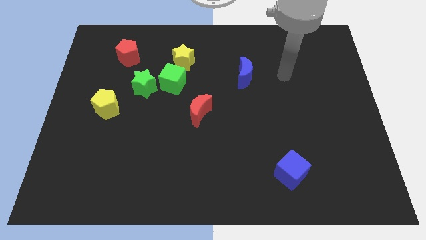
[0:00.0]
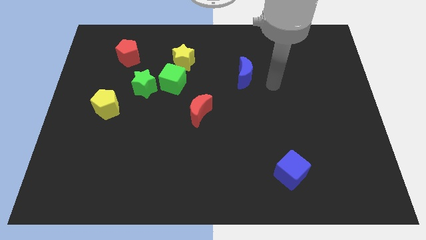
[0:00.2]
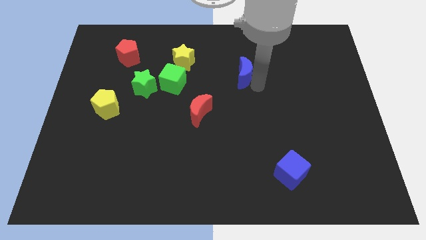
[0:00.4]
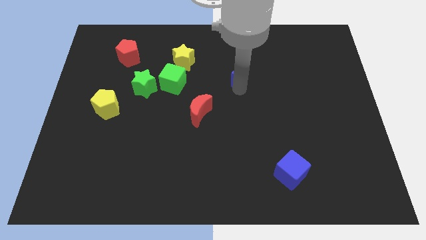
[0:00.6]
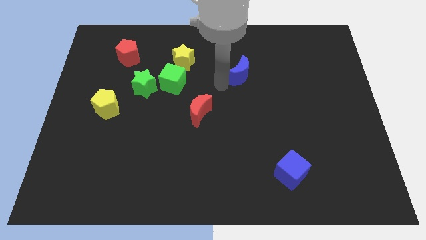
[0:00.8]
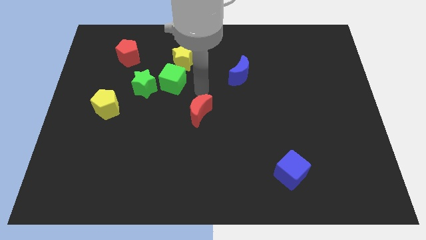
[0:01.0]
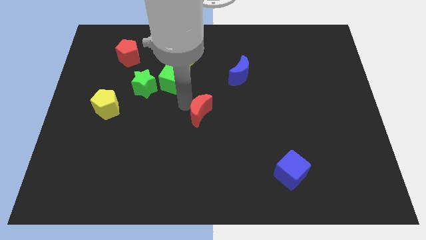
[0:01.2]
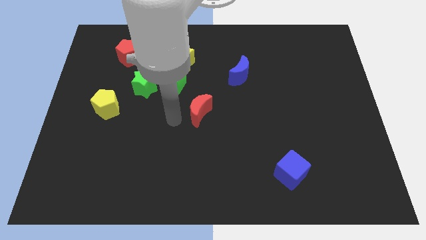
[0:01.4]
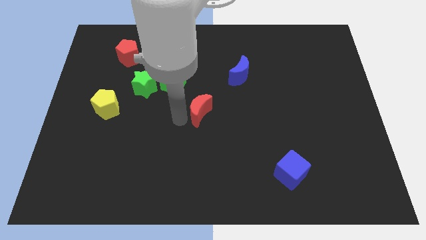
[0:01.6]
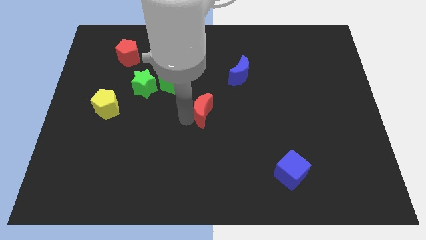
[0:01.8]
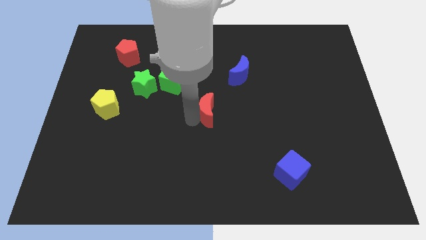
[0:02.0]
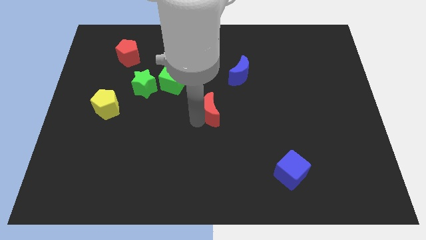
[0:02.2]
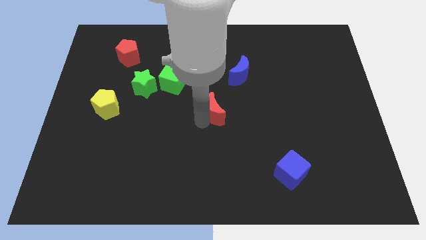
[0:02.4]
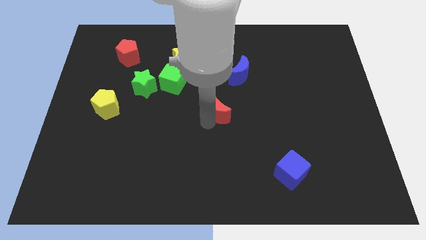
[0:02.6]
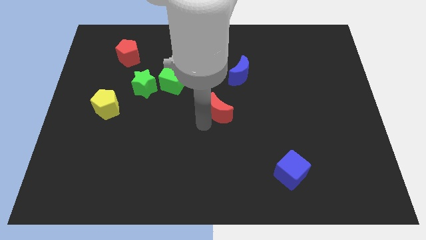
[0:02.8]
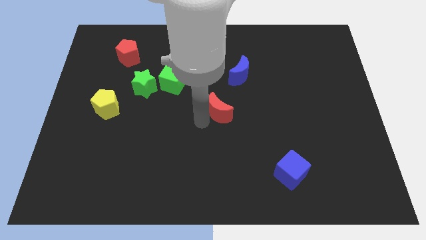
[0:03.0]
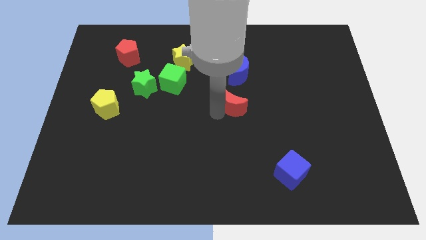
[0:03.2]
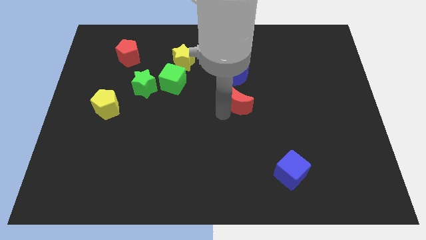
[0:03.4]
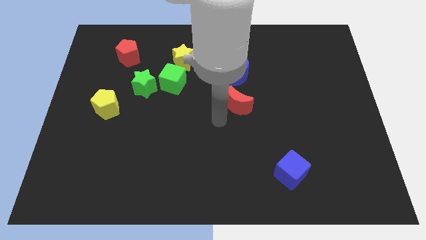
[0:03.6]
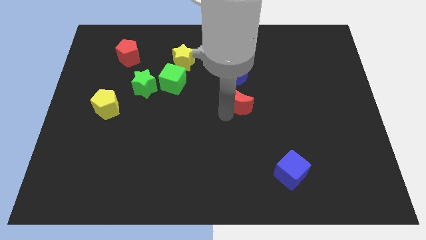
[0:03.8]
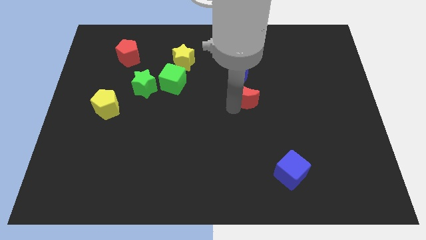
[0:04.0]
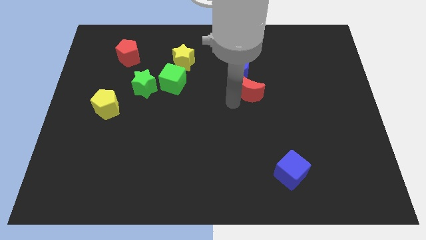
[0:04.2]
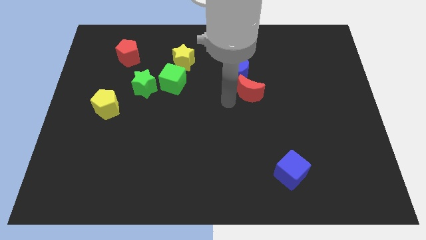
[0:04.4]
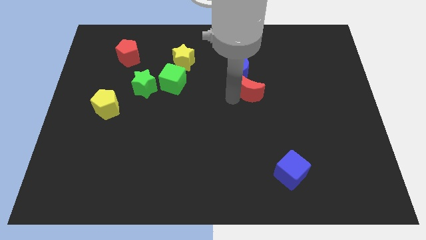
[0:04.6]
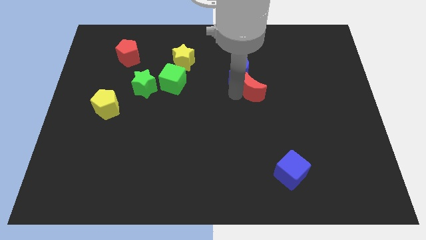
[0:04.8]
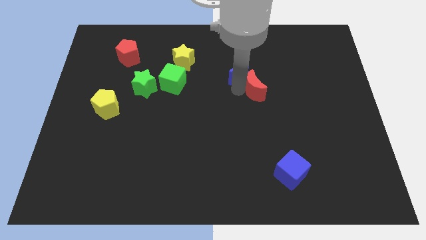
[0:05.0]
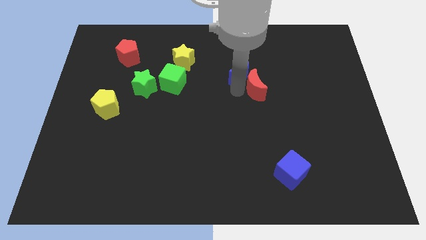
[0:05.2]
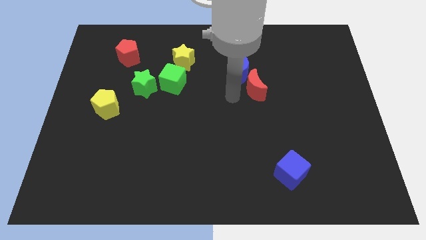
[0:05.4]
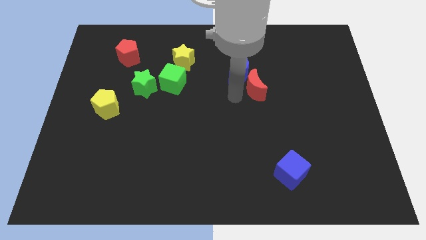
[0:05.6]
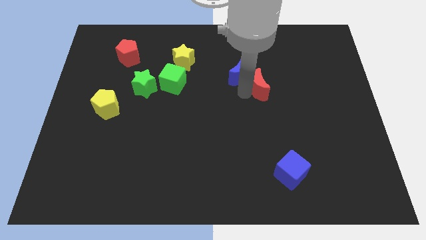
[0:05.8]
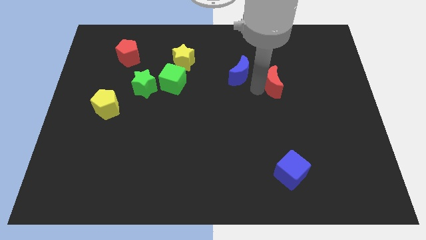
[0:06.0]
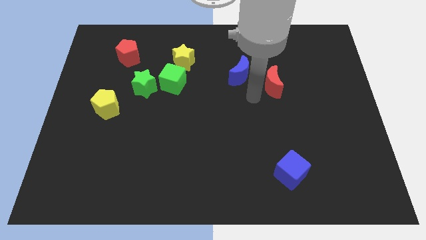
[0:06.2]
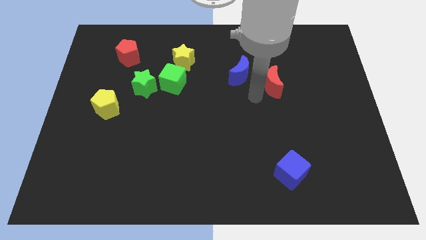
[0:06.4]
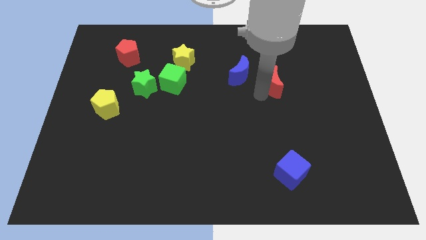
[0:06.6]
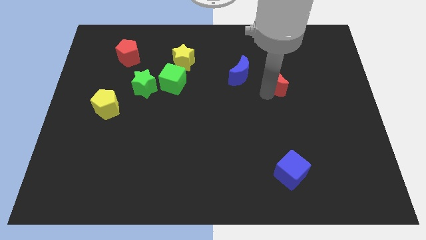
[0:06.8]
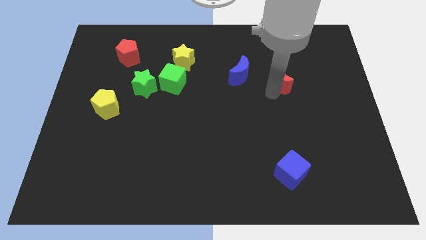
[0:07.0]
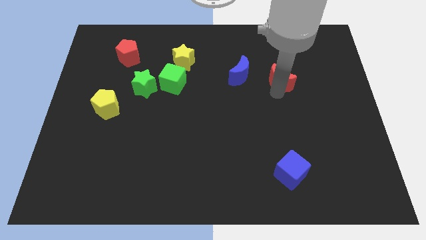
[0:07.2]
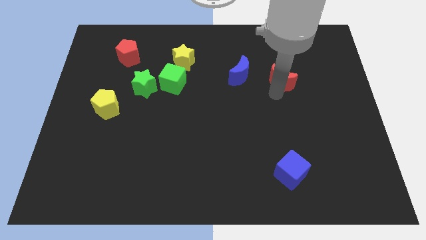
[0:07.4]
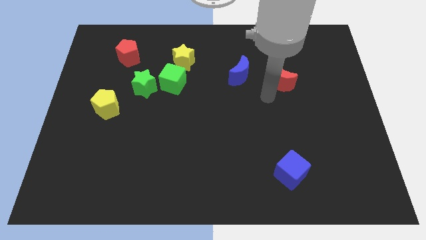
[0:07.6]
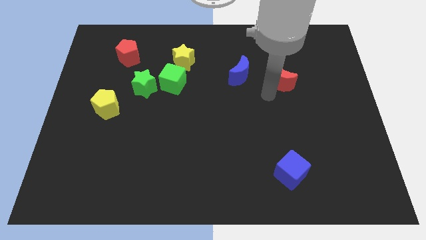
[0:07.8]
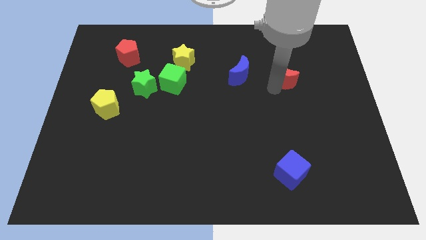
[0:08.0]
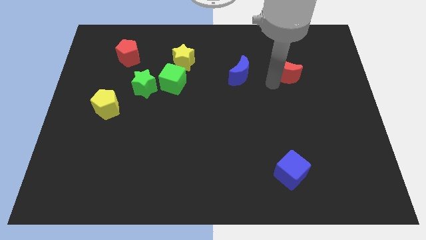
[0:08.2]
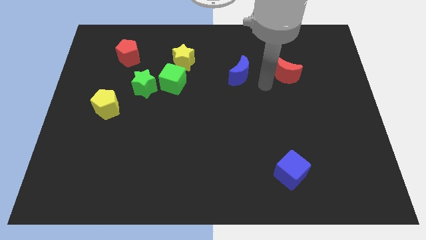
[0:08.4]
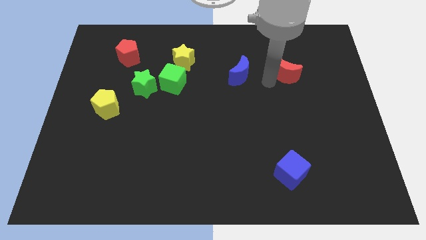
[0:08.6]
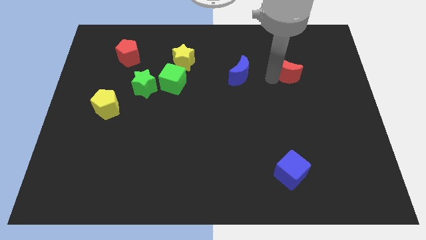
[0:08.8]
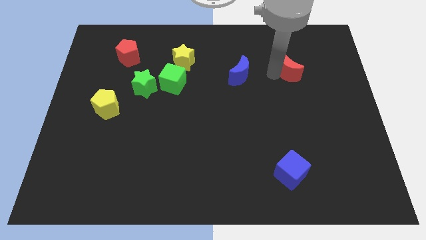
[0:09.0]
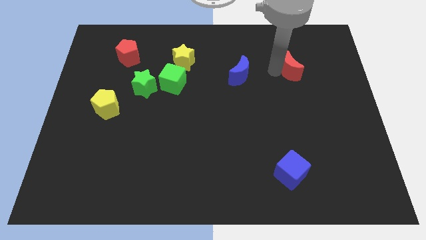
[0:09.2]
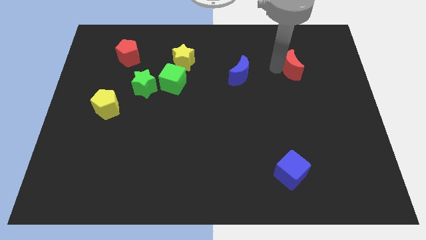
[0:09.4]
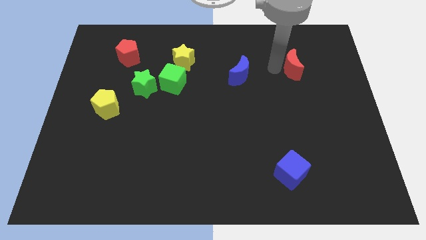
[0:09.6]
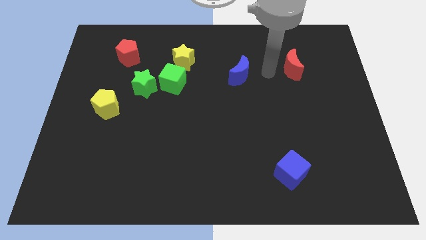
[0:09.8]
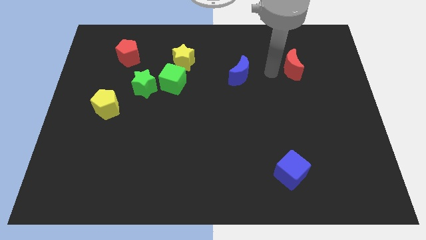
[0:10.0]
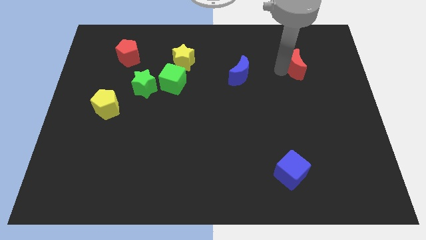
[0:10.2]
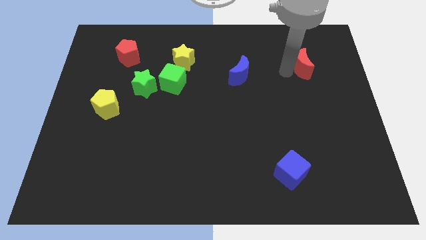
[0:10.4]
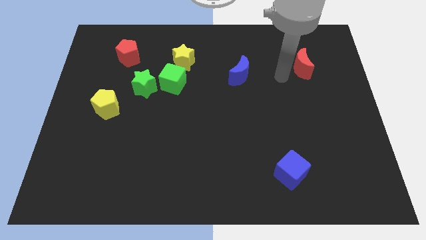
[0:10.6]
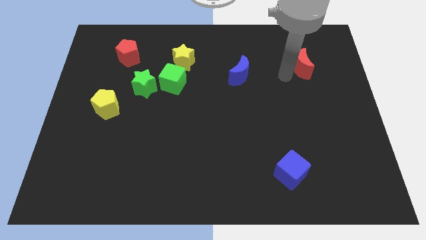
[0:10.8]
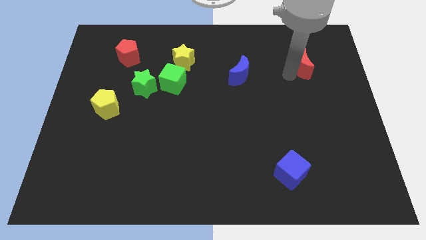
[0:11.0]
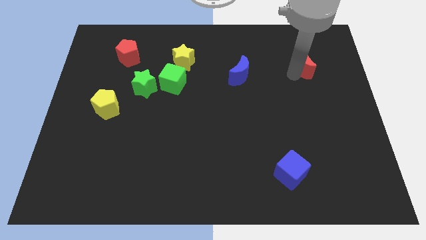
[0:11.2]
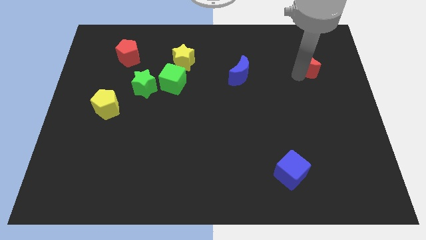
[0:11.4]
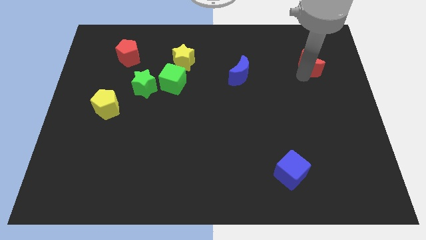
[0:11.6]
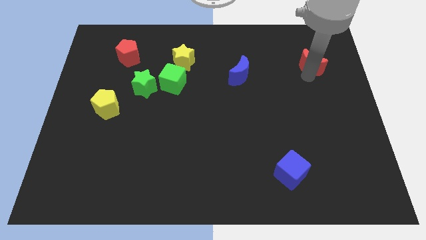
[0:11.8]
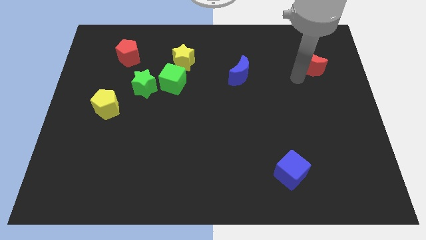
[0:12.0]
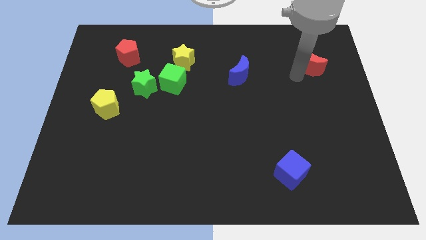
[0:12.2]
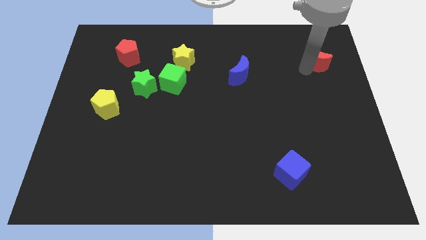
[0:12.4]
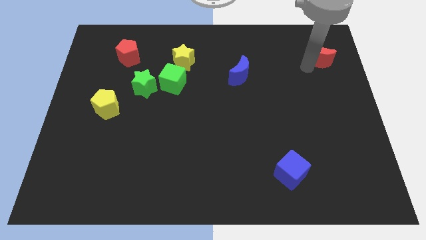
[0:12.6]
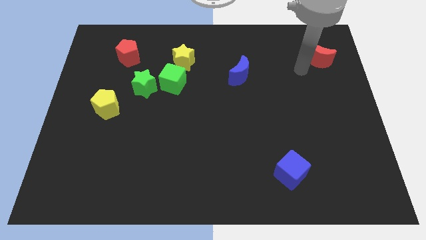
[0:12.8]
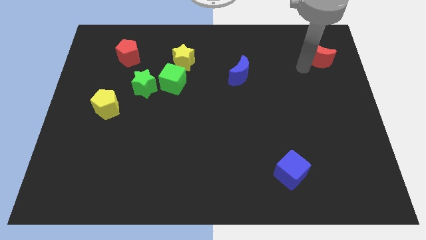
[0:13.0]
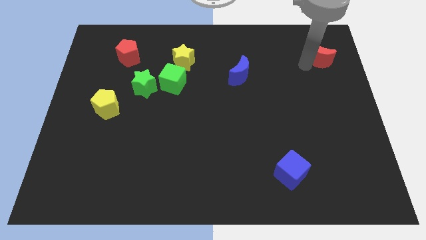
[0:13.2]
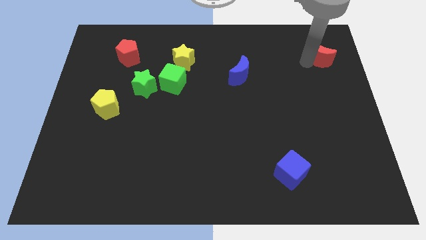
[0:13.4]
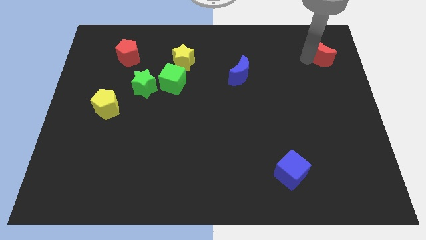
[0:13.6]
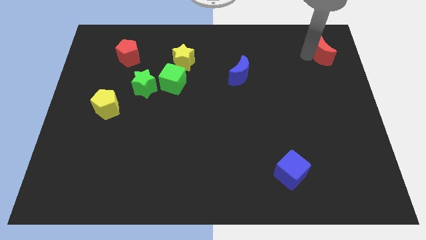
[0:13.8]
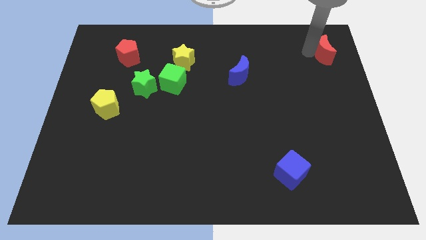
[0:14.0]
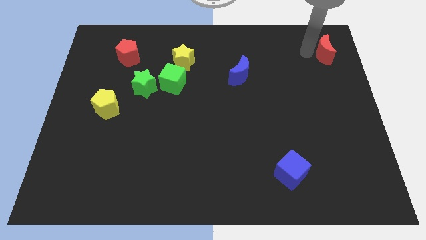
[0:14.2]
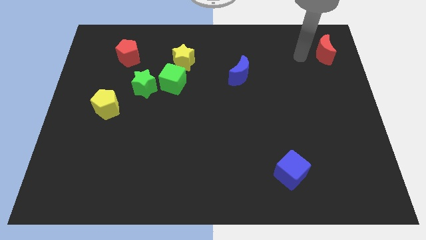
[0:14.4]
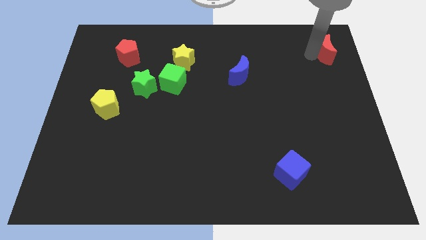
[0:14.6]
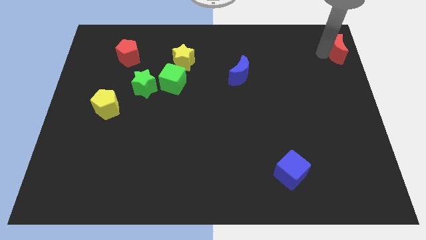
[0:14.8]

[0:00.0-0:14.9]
push the red moon to the top right of the board
